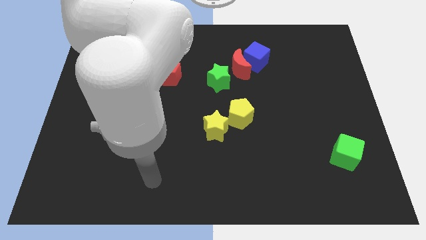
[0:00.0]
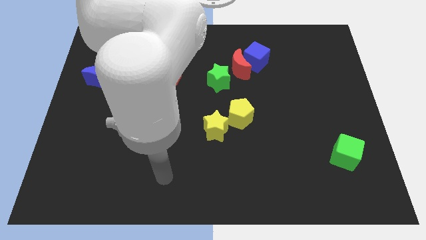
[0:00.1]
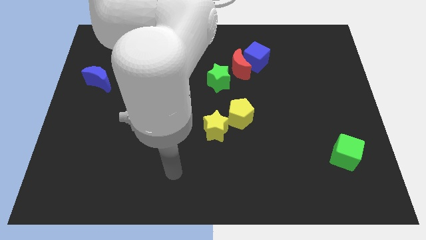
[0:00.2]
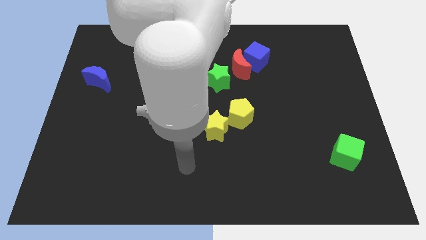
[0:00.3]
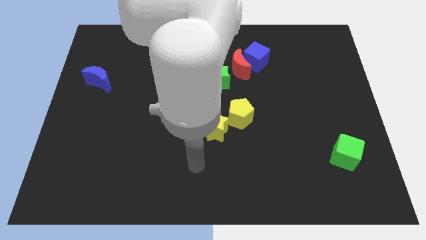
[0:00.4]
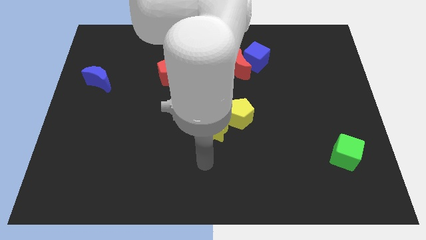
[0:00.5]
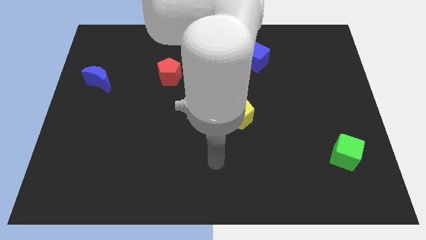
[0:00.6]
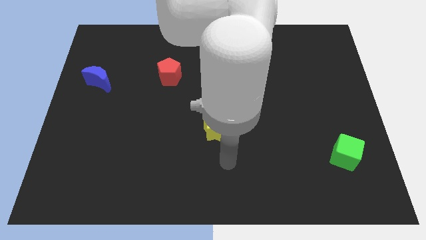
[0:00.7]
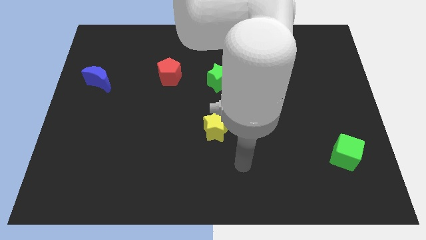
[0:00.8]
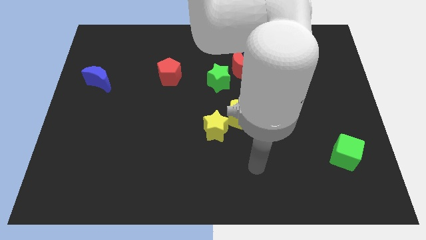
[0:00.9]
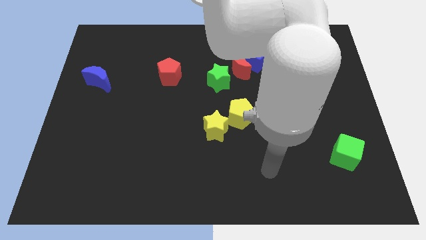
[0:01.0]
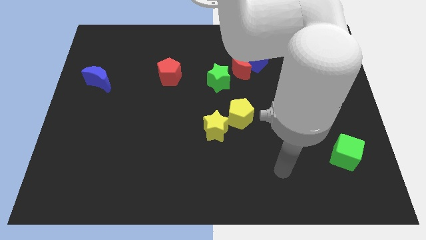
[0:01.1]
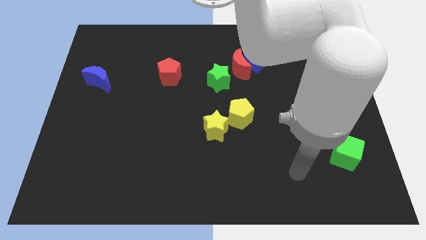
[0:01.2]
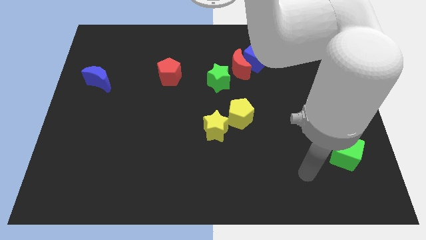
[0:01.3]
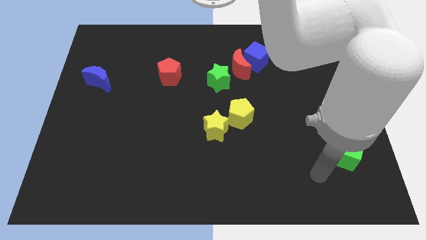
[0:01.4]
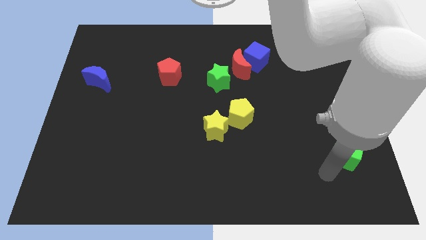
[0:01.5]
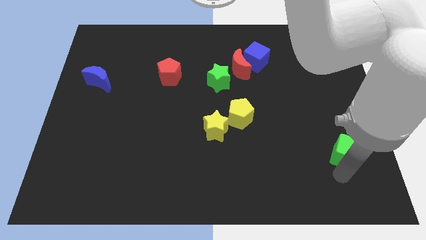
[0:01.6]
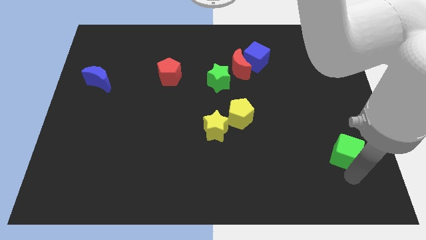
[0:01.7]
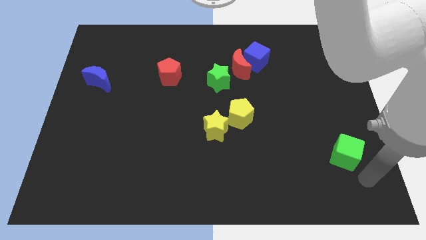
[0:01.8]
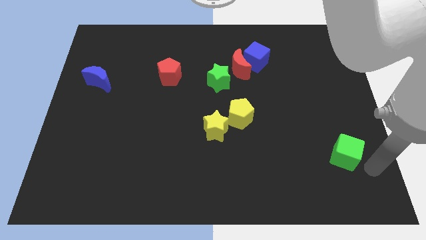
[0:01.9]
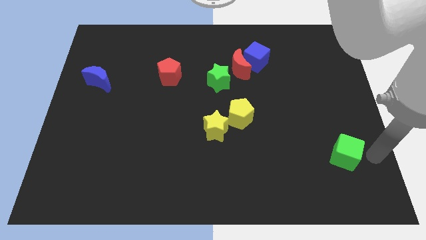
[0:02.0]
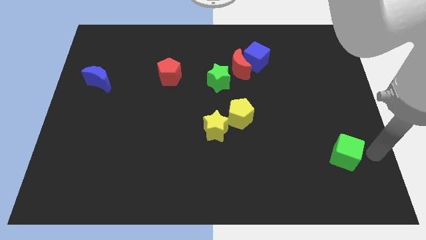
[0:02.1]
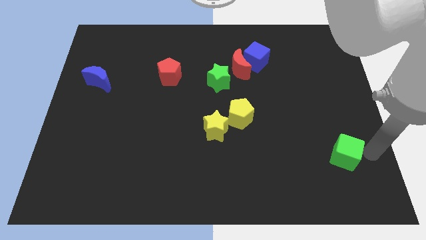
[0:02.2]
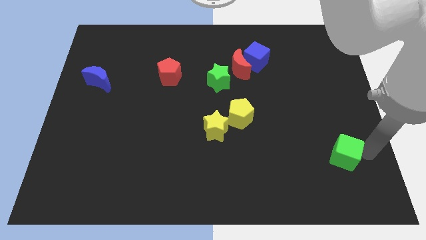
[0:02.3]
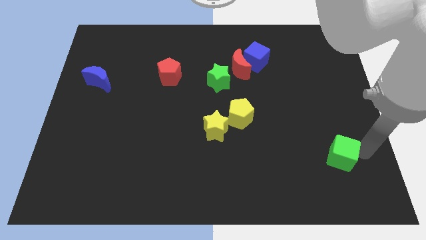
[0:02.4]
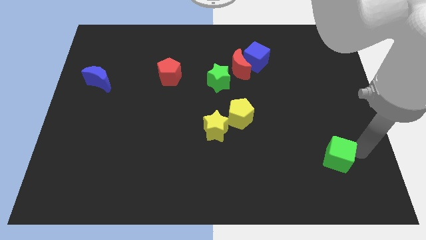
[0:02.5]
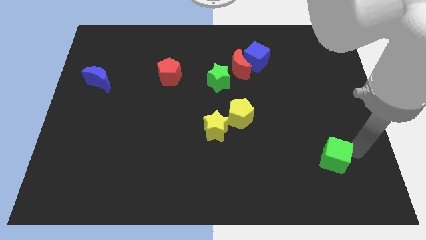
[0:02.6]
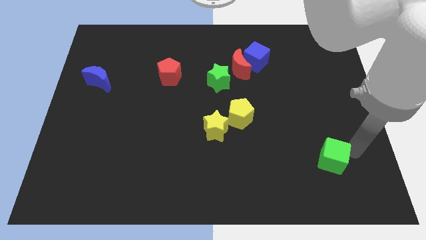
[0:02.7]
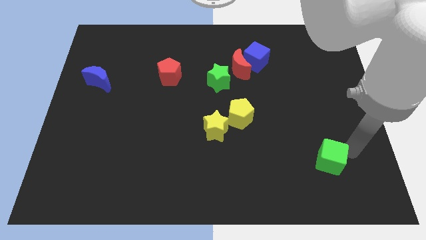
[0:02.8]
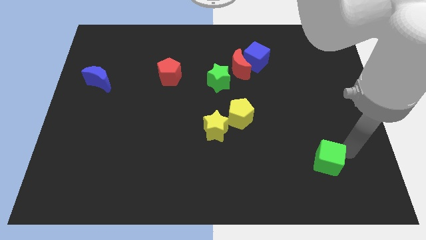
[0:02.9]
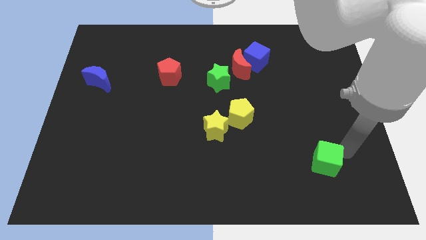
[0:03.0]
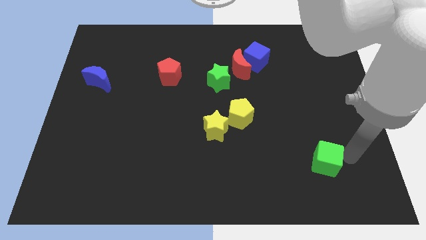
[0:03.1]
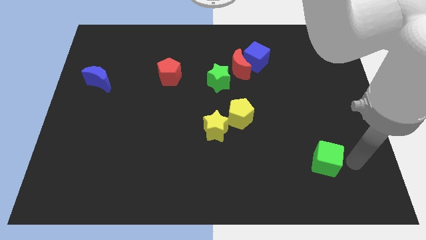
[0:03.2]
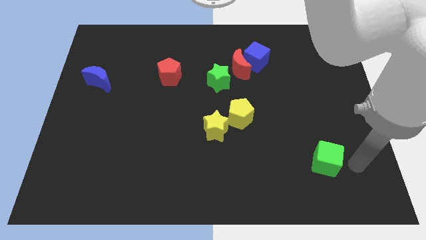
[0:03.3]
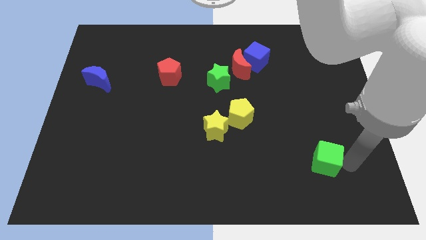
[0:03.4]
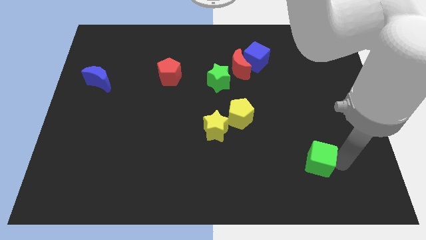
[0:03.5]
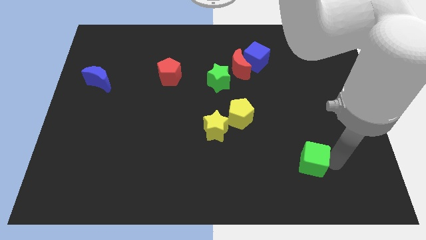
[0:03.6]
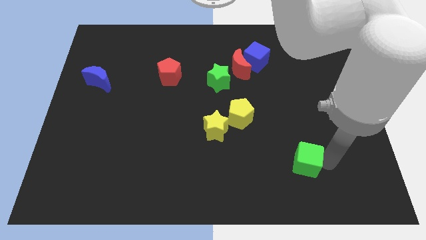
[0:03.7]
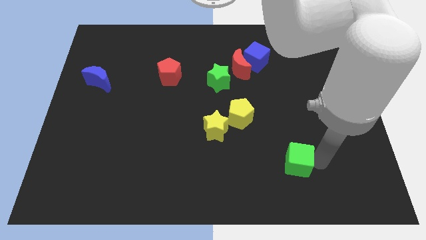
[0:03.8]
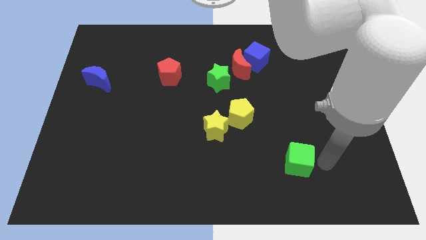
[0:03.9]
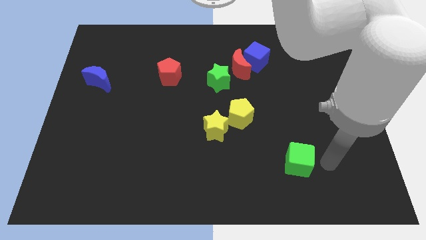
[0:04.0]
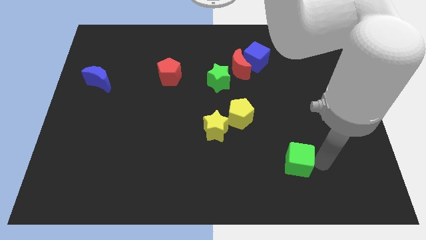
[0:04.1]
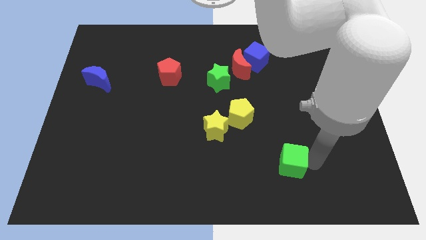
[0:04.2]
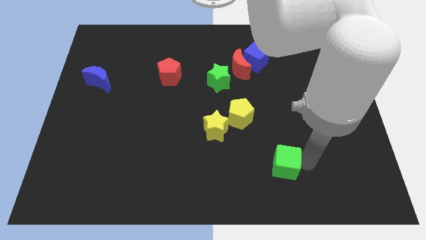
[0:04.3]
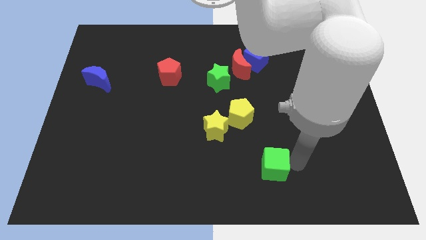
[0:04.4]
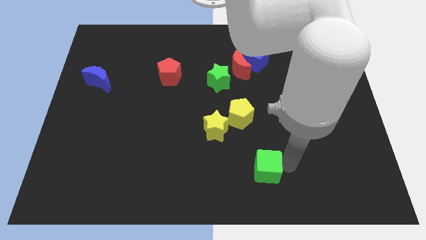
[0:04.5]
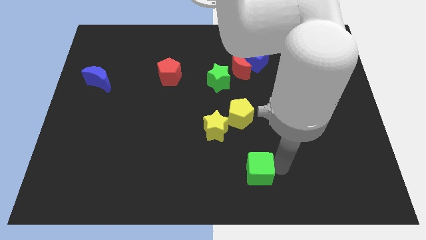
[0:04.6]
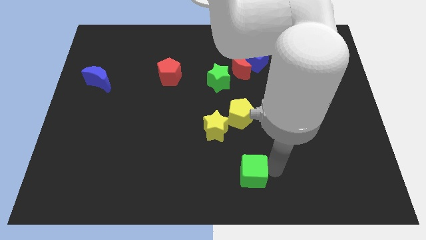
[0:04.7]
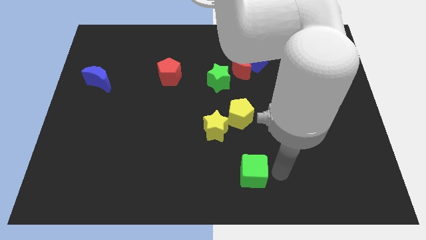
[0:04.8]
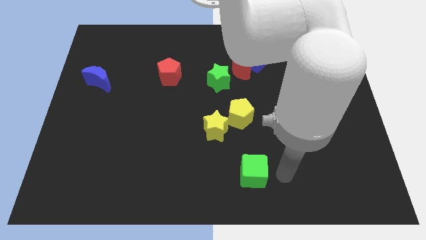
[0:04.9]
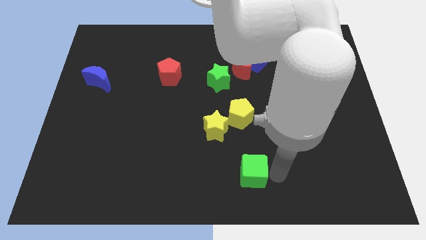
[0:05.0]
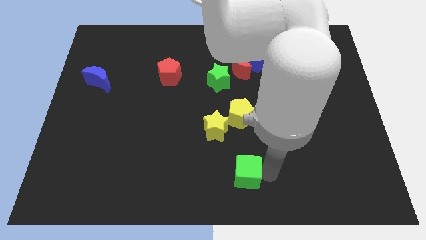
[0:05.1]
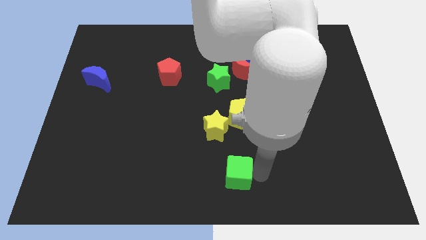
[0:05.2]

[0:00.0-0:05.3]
put the green cube to the bottom of the yellow star

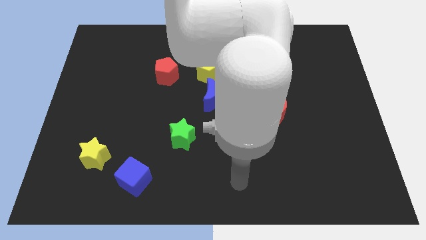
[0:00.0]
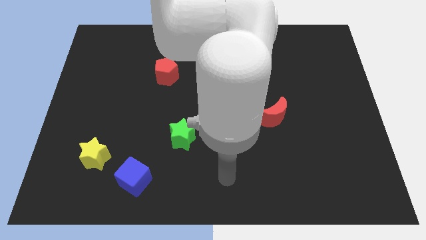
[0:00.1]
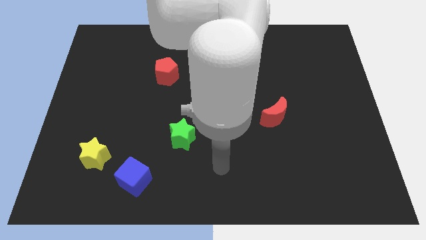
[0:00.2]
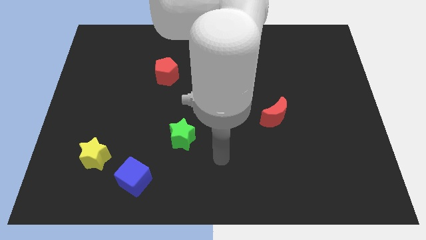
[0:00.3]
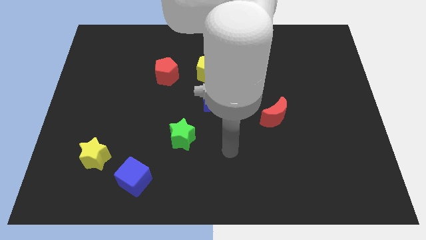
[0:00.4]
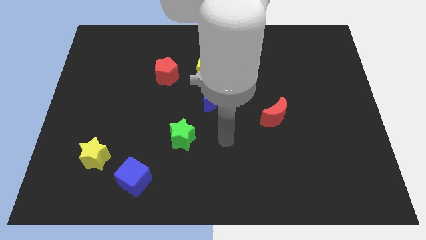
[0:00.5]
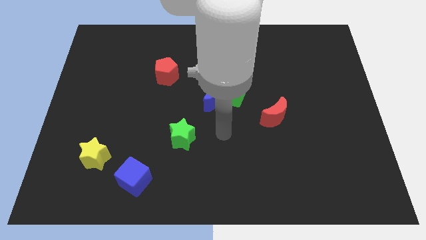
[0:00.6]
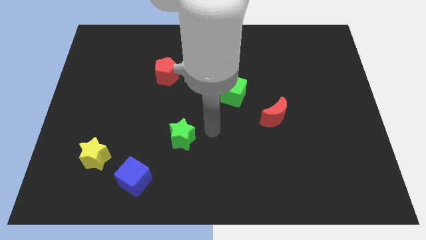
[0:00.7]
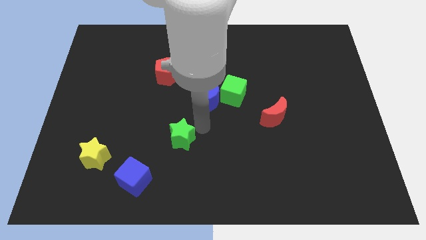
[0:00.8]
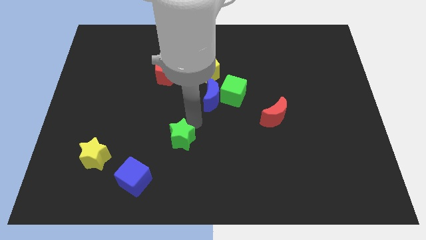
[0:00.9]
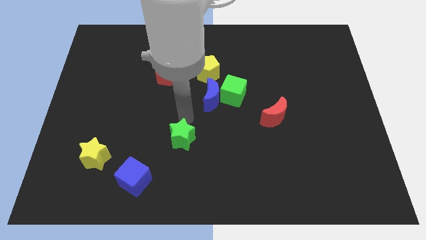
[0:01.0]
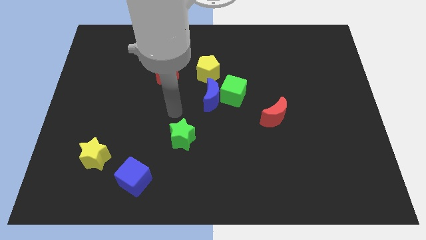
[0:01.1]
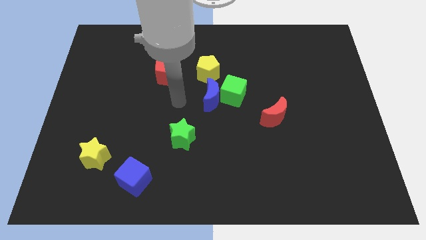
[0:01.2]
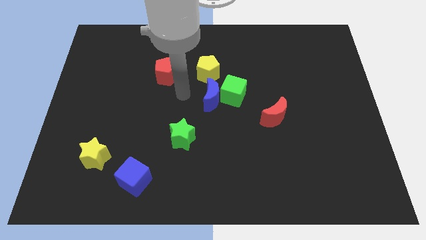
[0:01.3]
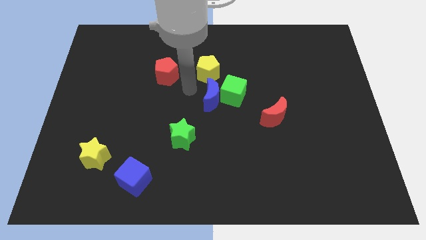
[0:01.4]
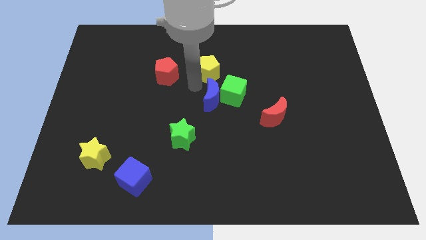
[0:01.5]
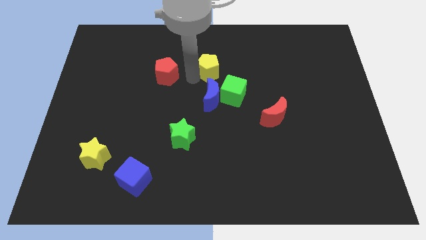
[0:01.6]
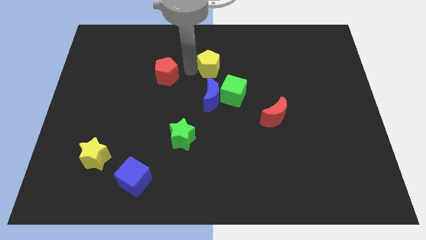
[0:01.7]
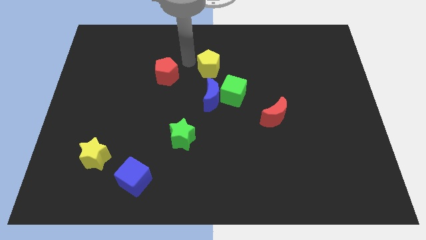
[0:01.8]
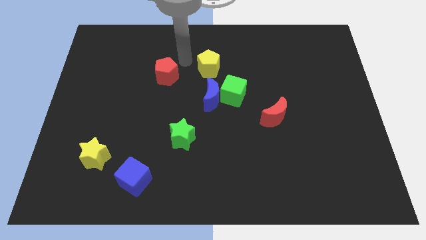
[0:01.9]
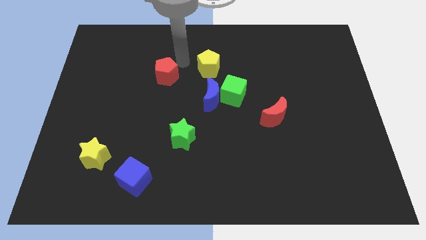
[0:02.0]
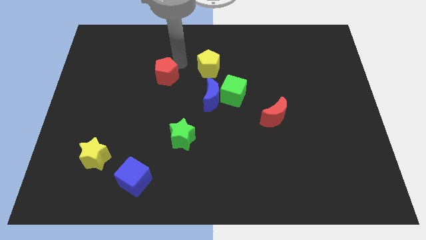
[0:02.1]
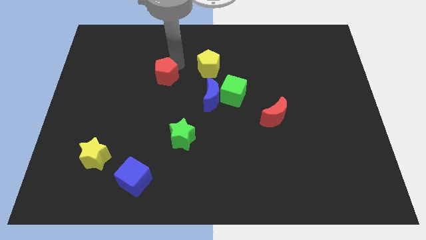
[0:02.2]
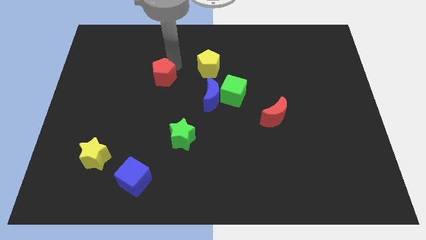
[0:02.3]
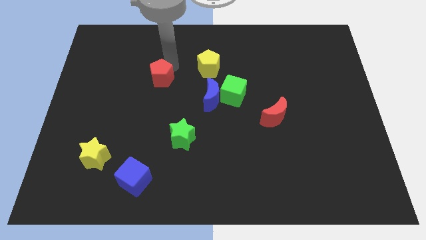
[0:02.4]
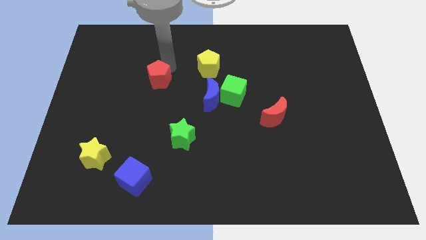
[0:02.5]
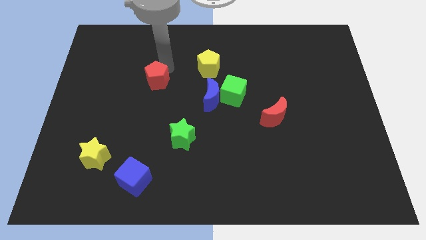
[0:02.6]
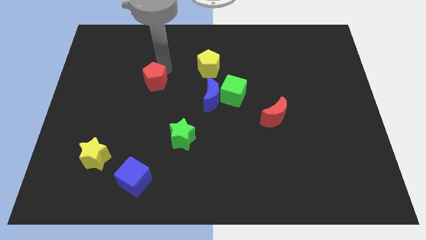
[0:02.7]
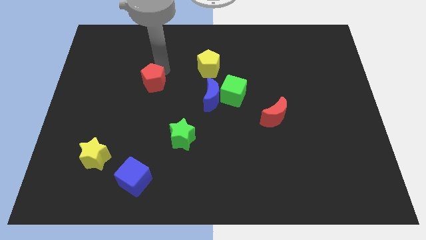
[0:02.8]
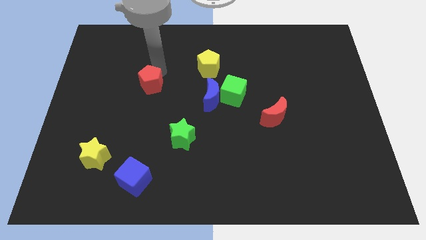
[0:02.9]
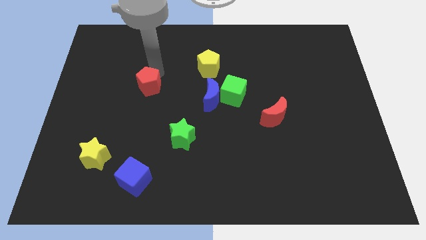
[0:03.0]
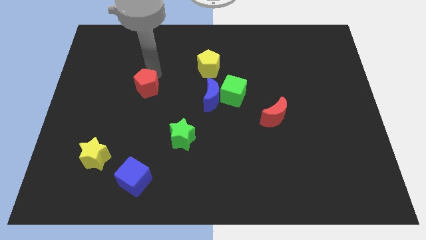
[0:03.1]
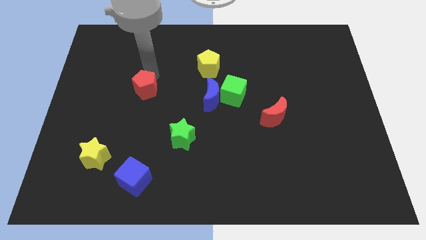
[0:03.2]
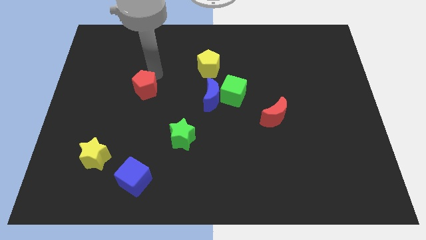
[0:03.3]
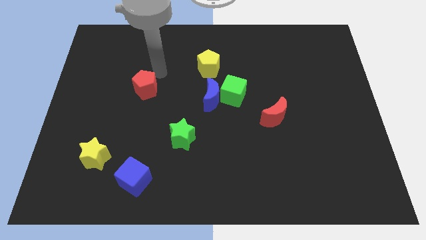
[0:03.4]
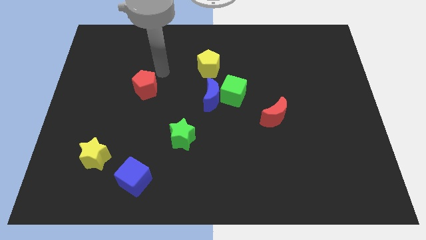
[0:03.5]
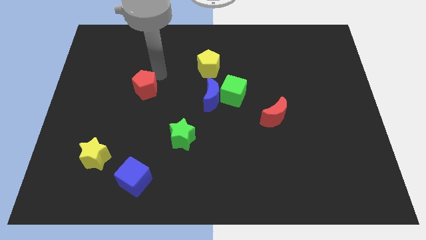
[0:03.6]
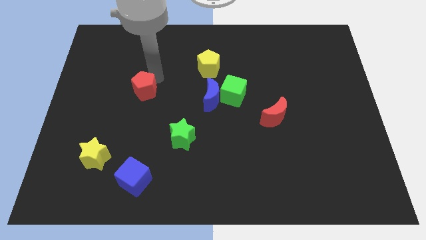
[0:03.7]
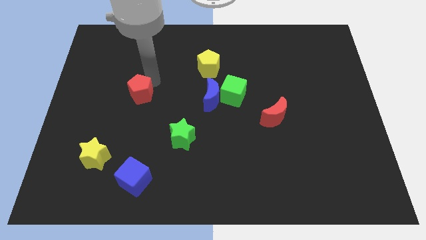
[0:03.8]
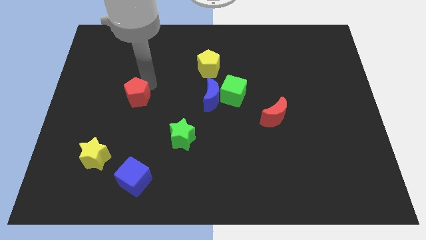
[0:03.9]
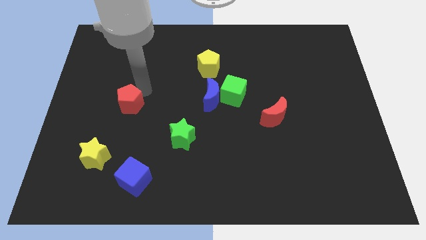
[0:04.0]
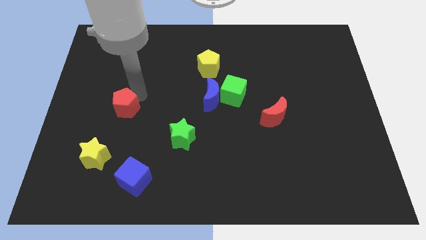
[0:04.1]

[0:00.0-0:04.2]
put the red pentagon to the top side of the yellow star
